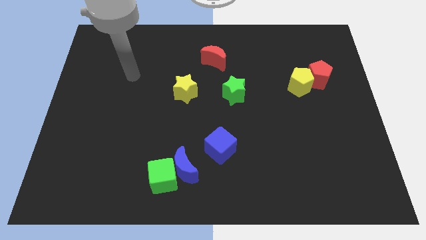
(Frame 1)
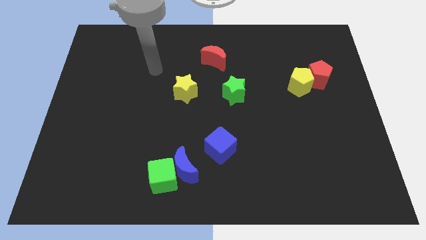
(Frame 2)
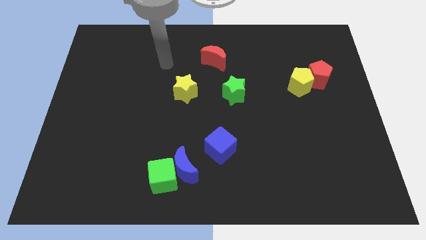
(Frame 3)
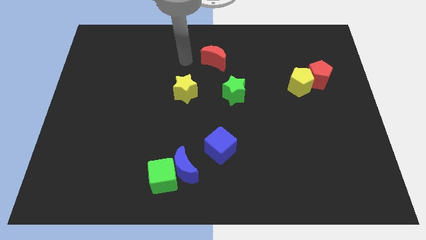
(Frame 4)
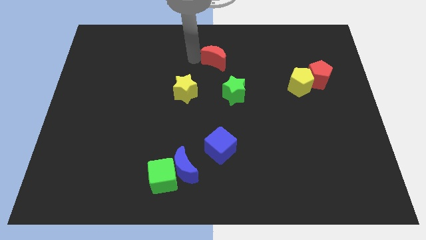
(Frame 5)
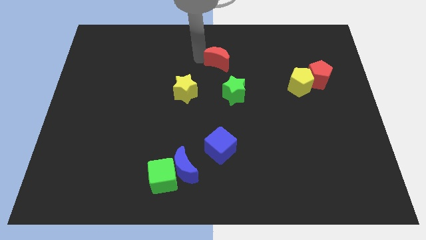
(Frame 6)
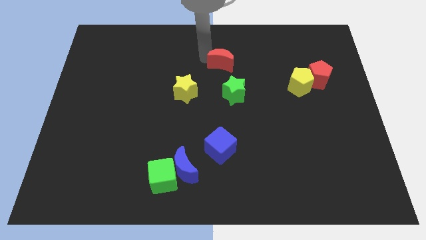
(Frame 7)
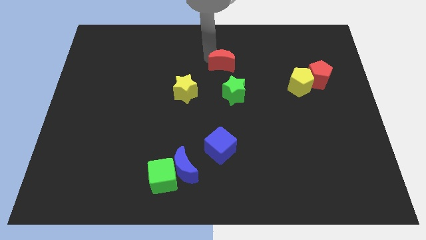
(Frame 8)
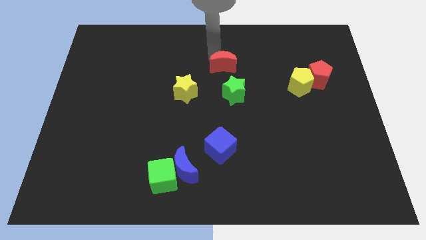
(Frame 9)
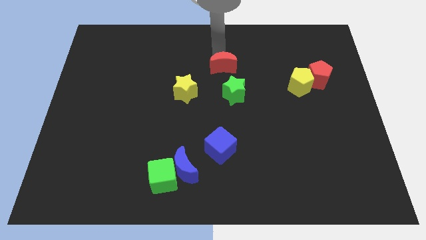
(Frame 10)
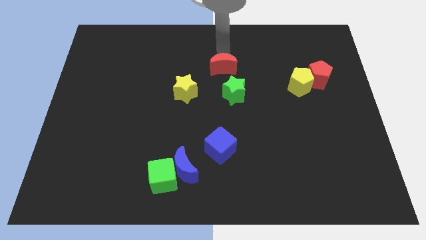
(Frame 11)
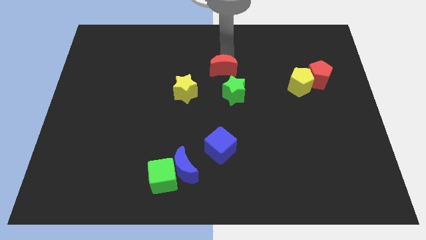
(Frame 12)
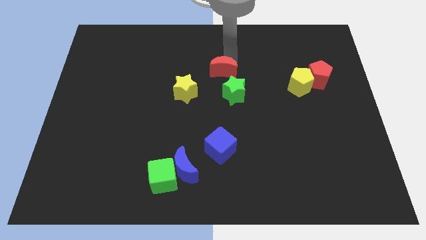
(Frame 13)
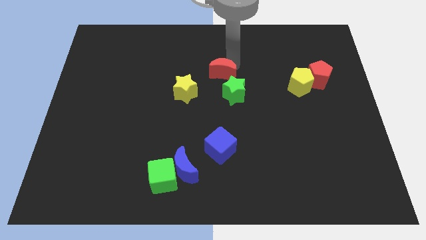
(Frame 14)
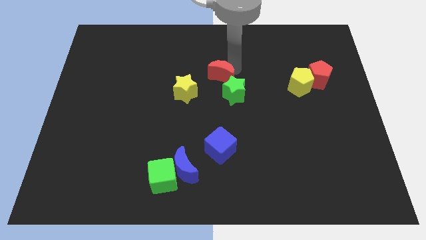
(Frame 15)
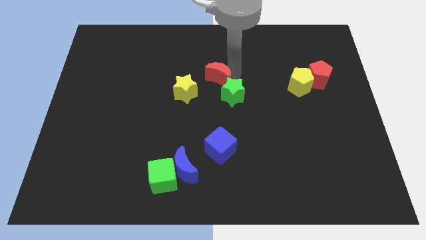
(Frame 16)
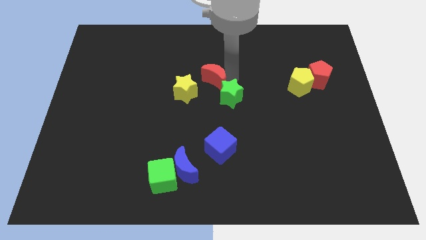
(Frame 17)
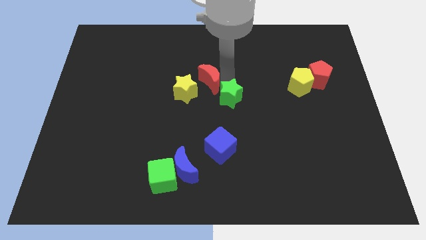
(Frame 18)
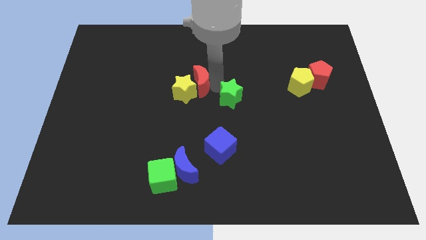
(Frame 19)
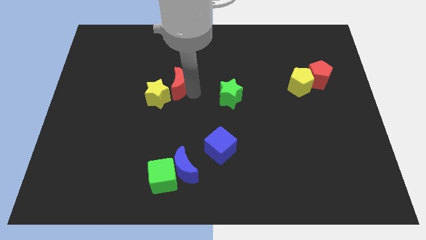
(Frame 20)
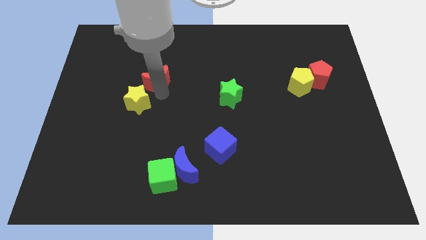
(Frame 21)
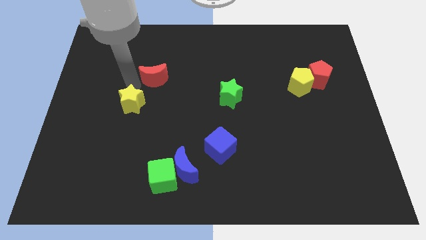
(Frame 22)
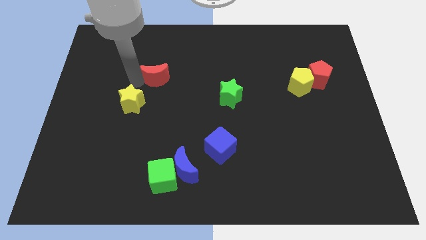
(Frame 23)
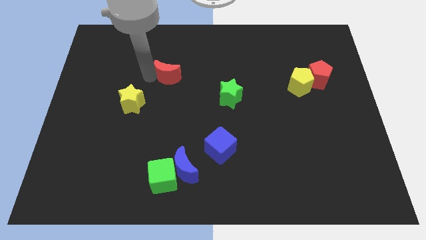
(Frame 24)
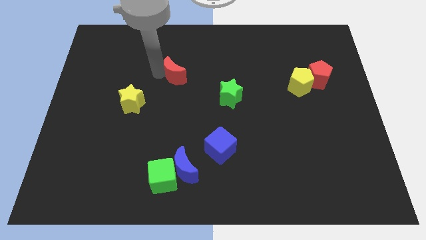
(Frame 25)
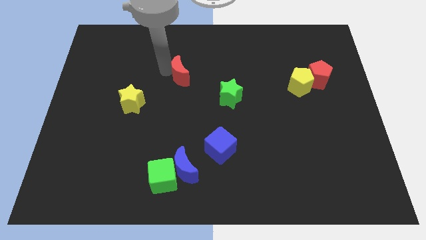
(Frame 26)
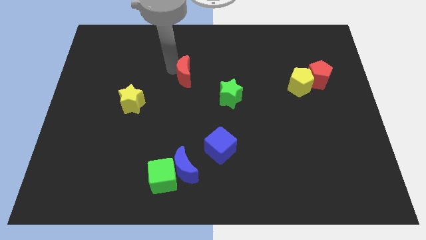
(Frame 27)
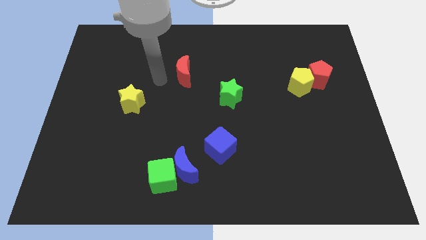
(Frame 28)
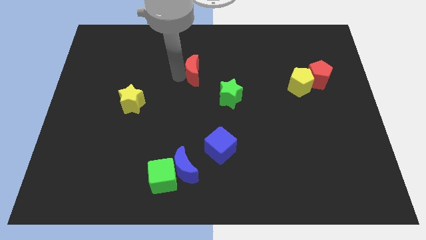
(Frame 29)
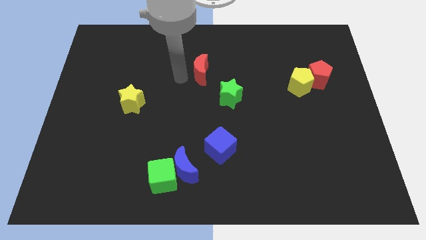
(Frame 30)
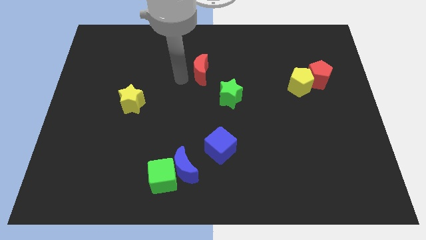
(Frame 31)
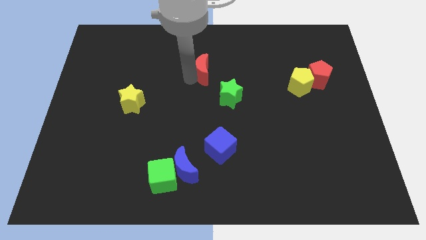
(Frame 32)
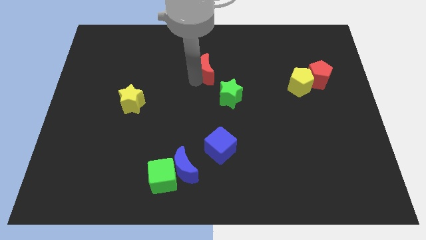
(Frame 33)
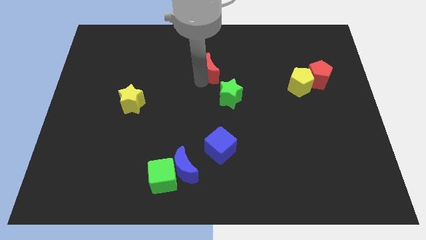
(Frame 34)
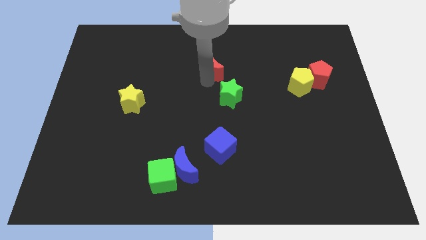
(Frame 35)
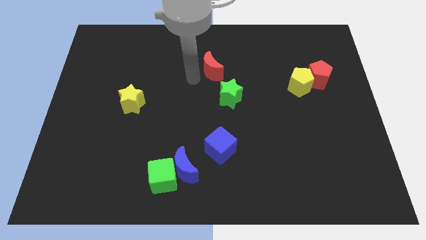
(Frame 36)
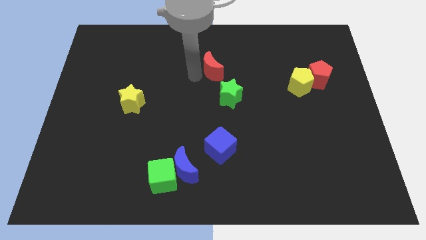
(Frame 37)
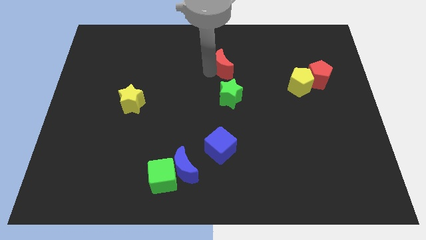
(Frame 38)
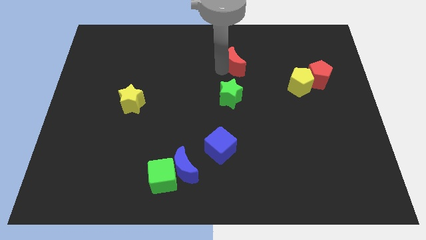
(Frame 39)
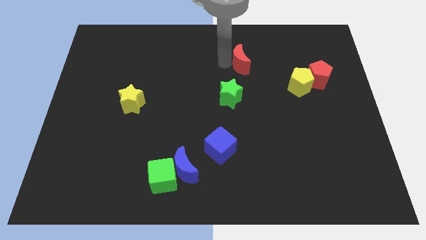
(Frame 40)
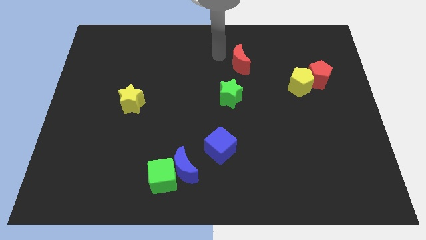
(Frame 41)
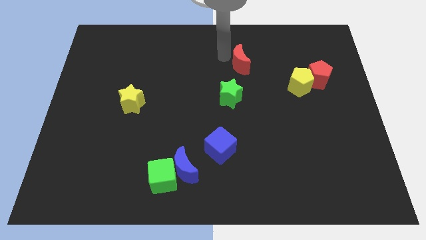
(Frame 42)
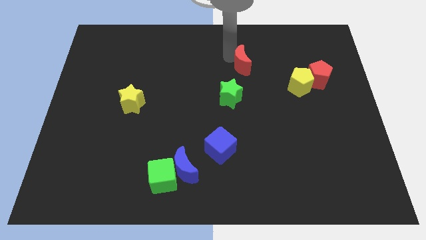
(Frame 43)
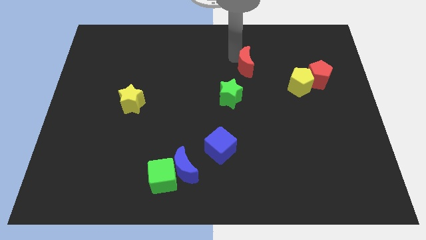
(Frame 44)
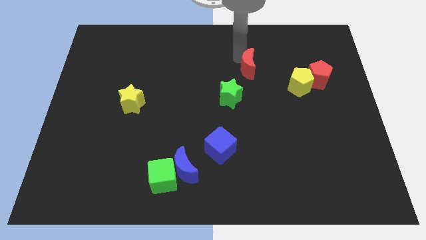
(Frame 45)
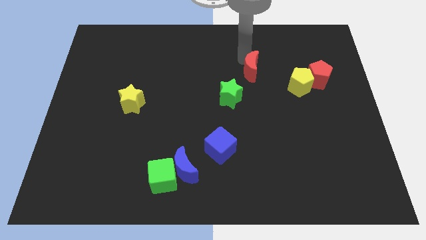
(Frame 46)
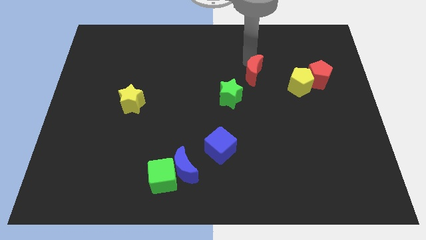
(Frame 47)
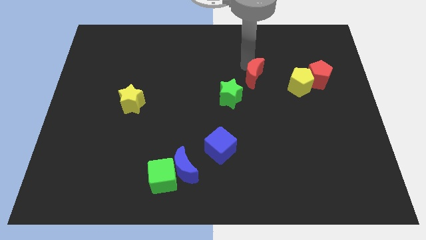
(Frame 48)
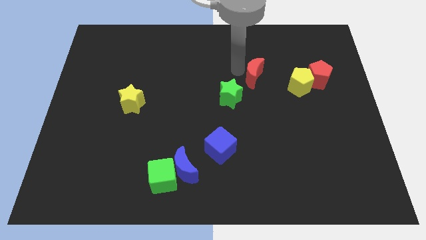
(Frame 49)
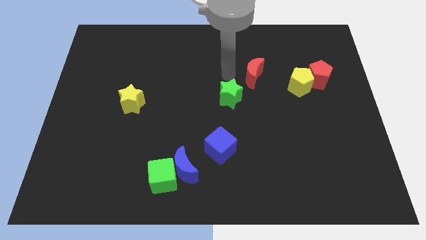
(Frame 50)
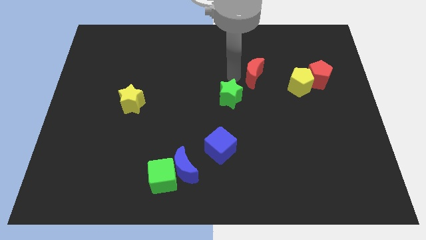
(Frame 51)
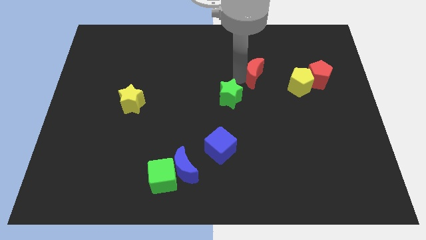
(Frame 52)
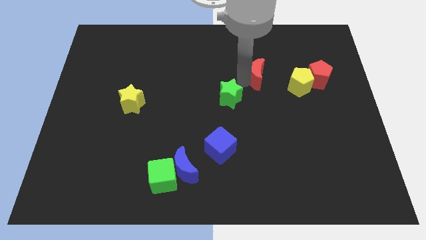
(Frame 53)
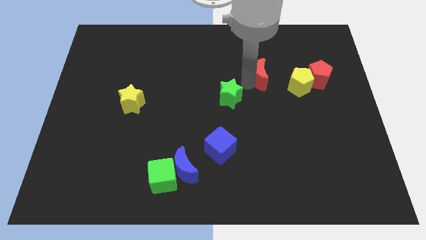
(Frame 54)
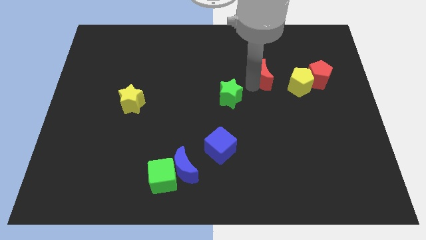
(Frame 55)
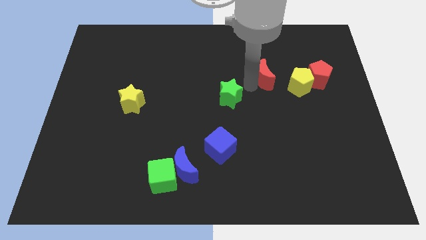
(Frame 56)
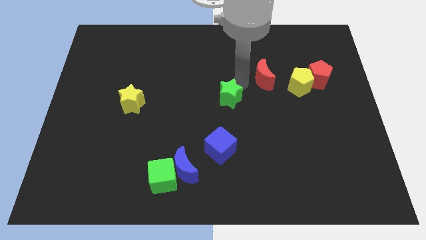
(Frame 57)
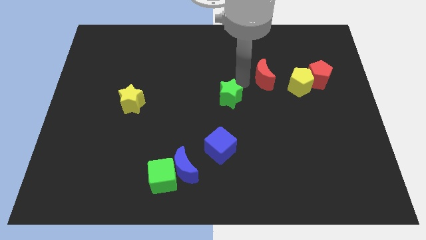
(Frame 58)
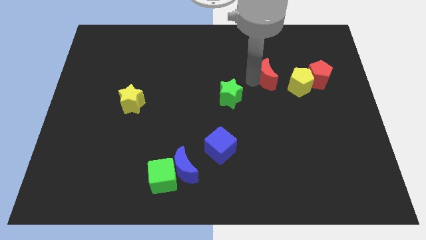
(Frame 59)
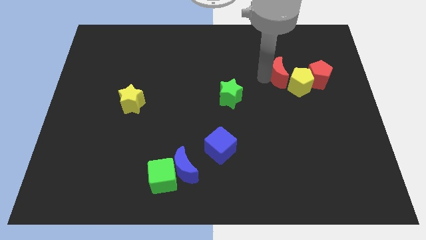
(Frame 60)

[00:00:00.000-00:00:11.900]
put the red moon close to the yellow pentagon

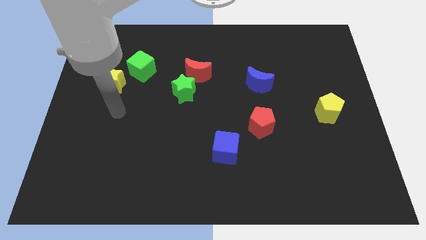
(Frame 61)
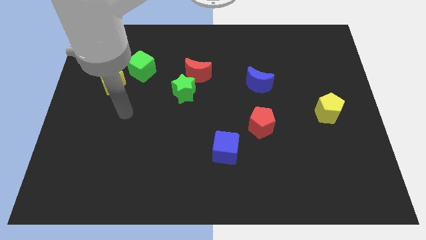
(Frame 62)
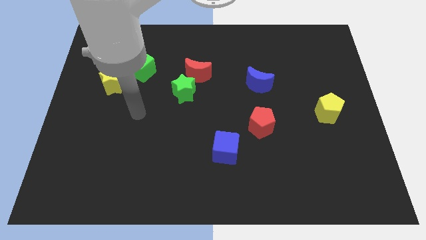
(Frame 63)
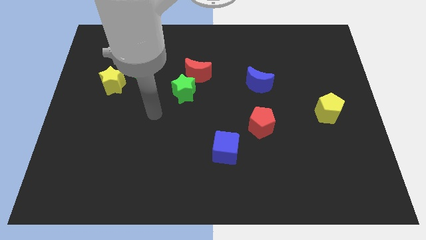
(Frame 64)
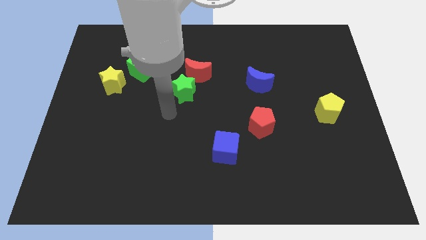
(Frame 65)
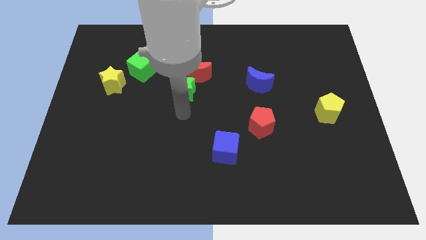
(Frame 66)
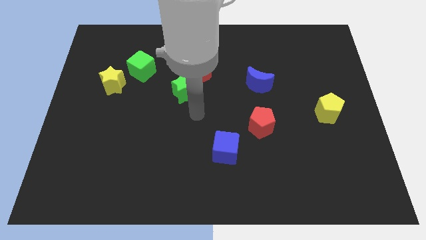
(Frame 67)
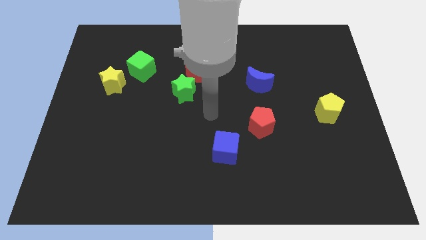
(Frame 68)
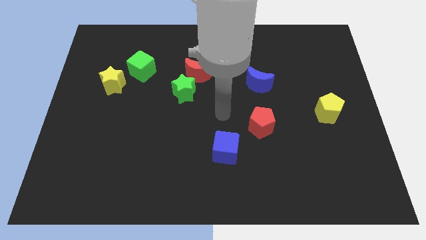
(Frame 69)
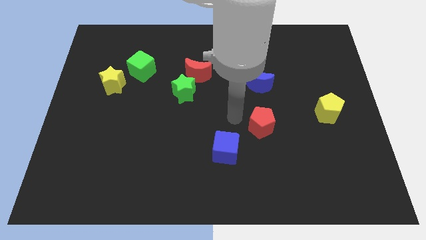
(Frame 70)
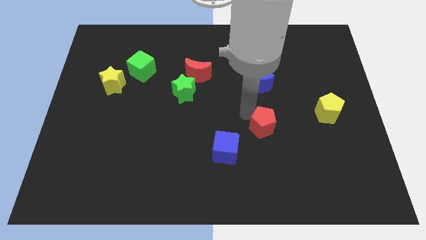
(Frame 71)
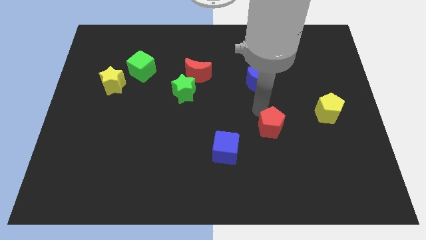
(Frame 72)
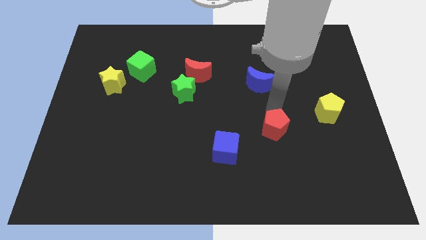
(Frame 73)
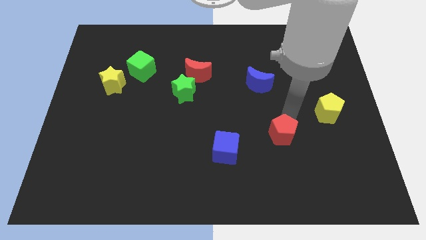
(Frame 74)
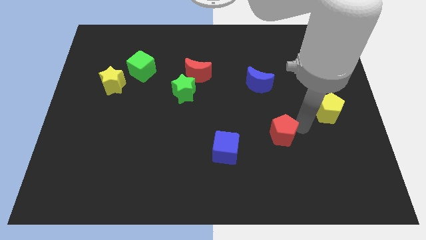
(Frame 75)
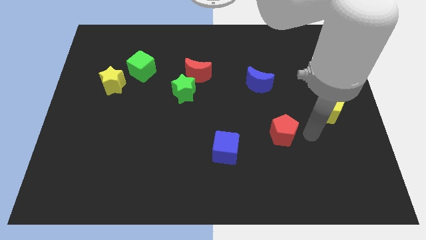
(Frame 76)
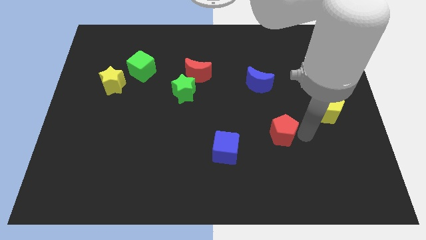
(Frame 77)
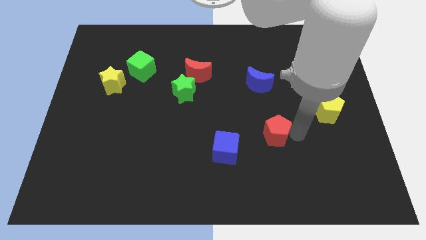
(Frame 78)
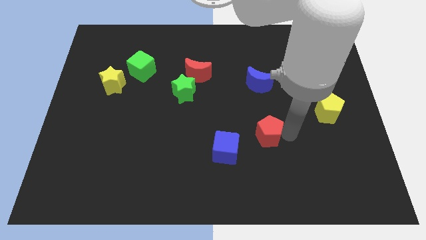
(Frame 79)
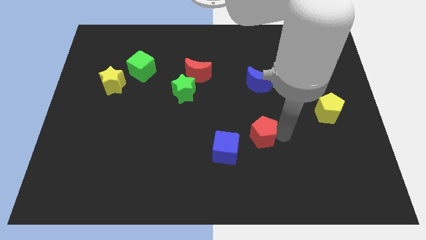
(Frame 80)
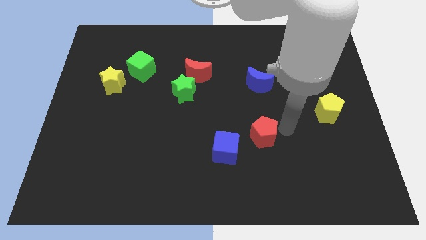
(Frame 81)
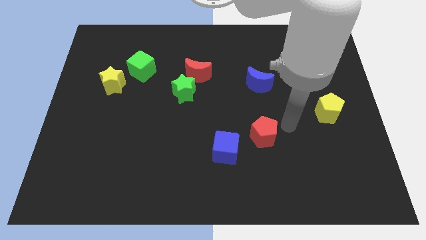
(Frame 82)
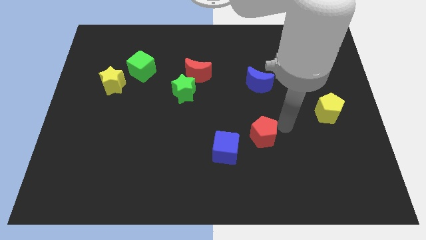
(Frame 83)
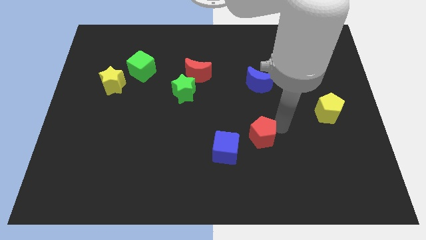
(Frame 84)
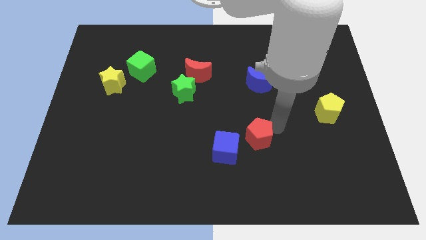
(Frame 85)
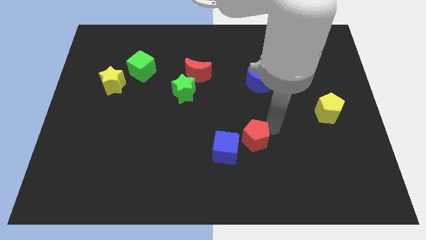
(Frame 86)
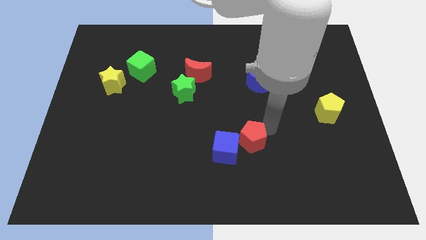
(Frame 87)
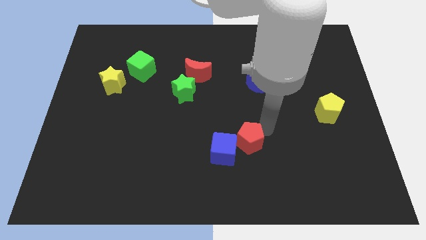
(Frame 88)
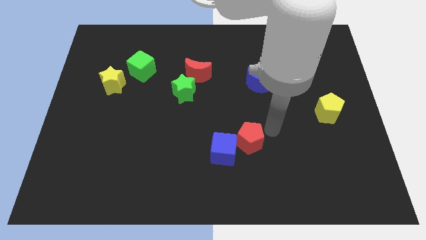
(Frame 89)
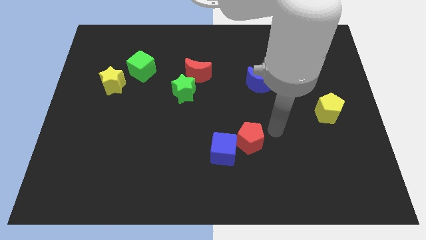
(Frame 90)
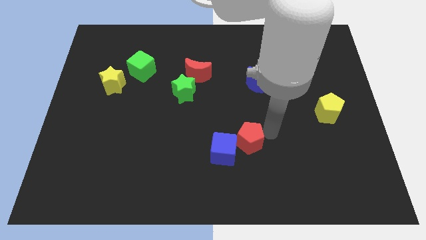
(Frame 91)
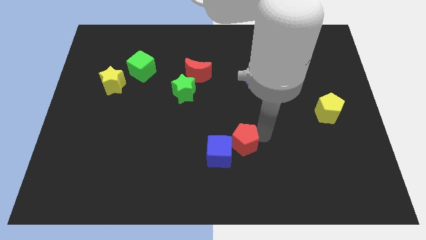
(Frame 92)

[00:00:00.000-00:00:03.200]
move the red pentagon to the blue cube
